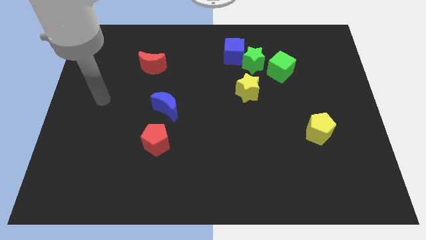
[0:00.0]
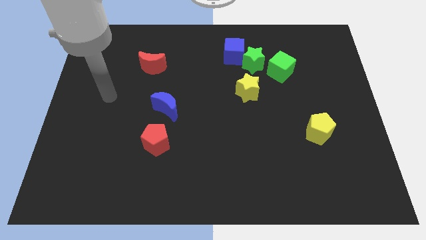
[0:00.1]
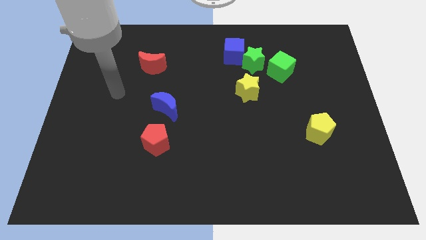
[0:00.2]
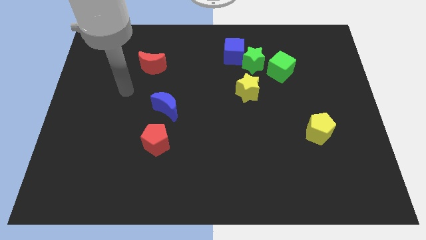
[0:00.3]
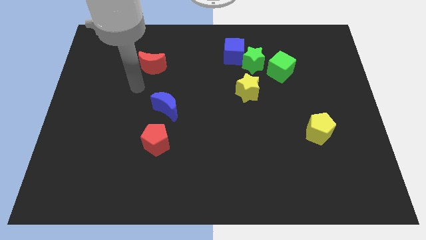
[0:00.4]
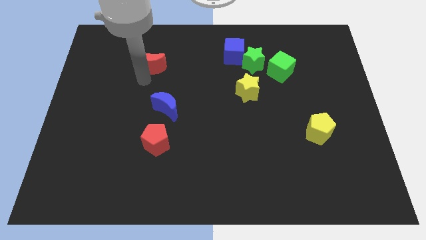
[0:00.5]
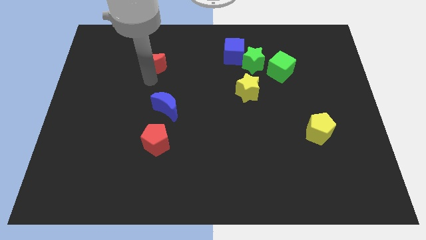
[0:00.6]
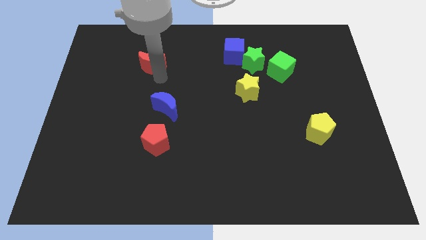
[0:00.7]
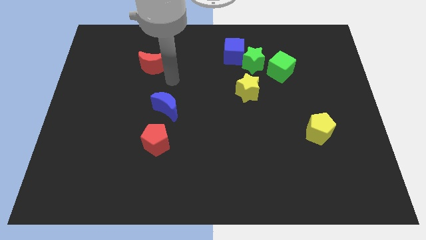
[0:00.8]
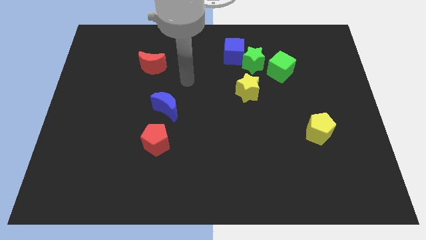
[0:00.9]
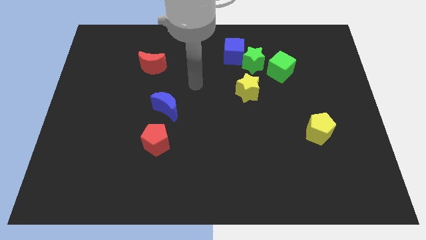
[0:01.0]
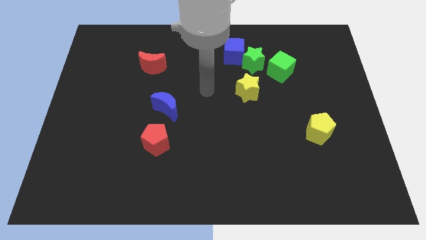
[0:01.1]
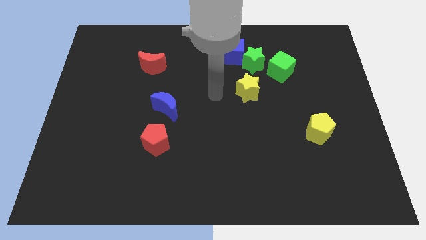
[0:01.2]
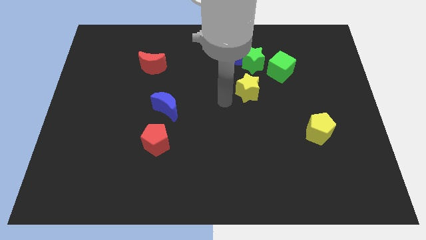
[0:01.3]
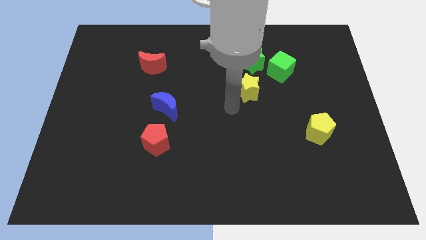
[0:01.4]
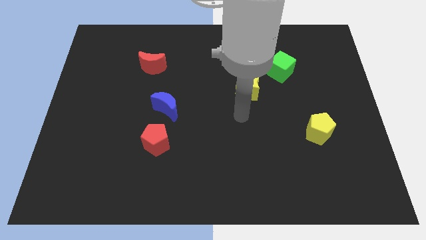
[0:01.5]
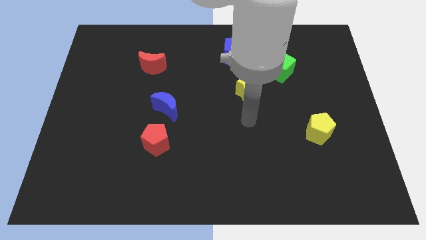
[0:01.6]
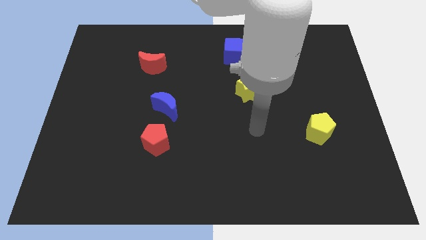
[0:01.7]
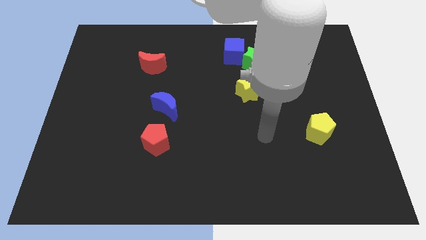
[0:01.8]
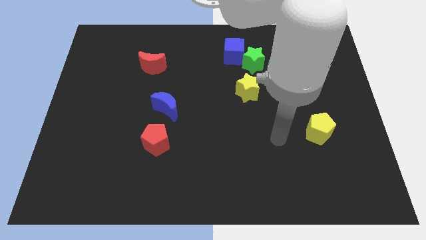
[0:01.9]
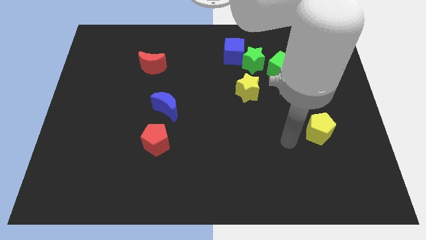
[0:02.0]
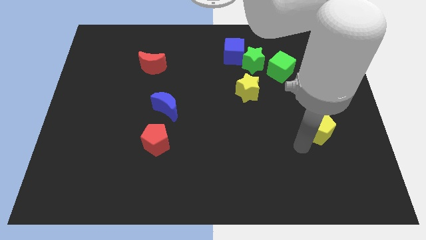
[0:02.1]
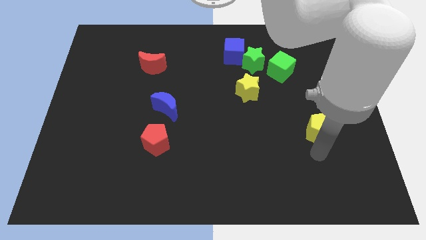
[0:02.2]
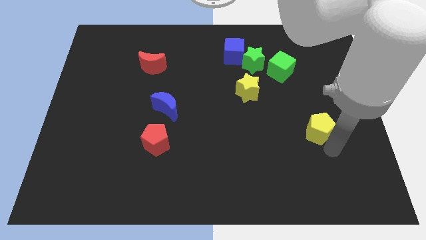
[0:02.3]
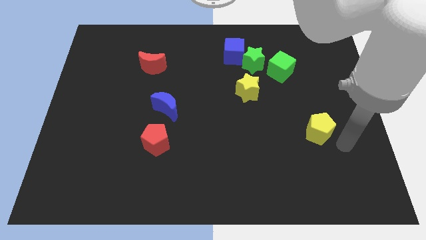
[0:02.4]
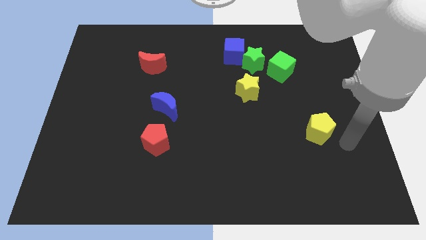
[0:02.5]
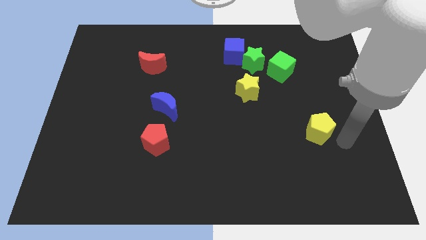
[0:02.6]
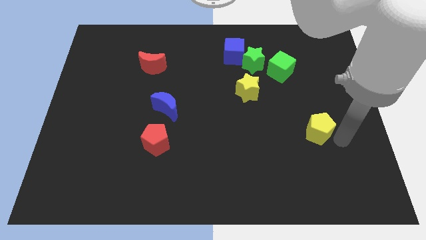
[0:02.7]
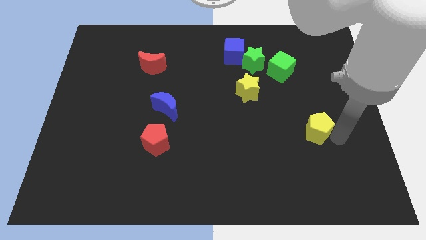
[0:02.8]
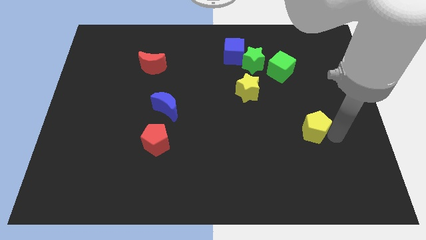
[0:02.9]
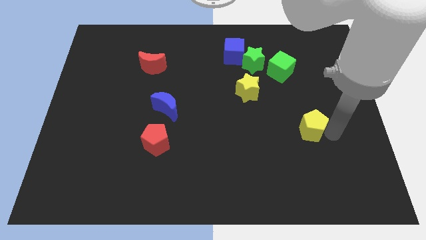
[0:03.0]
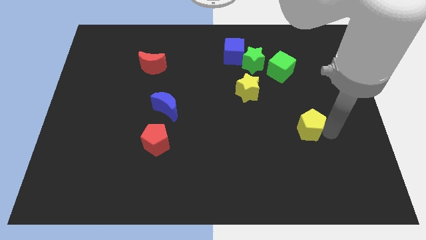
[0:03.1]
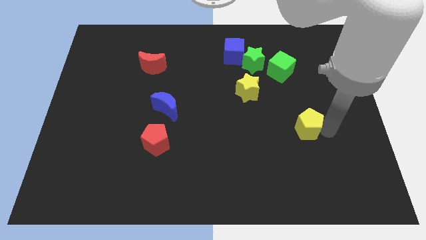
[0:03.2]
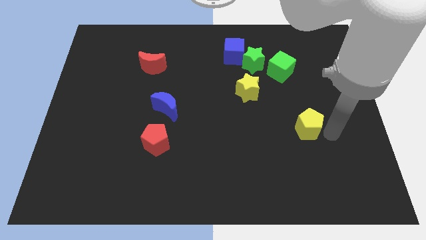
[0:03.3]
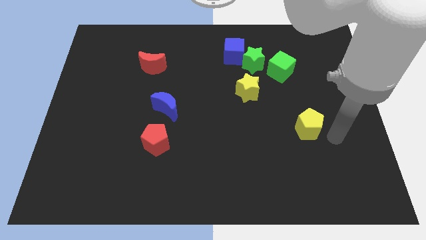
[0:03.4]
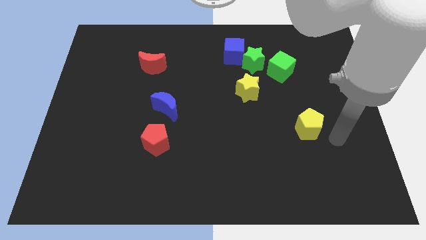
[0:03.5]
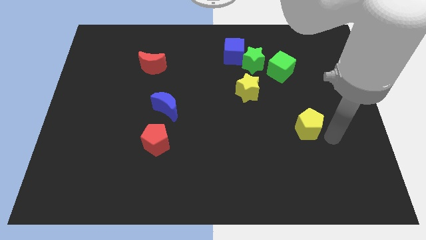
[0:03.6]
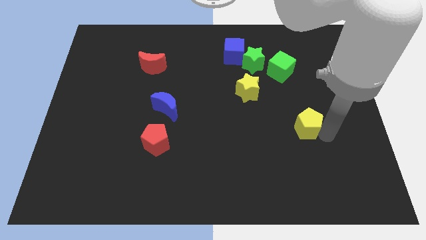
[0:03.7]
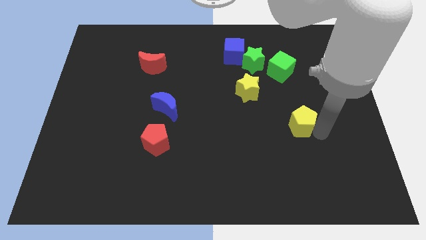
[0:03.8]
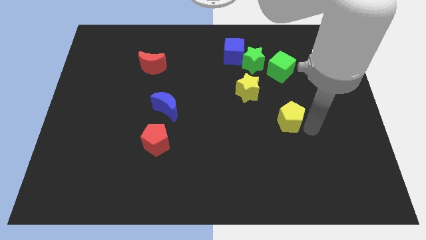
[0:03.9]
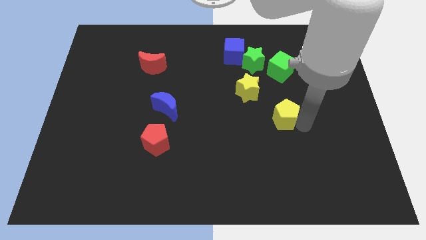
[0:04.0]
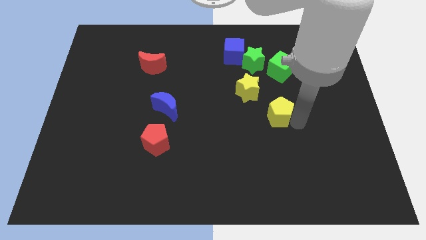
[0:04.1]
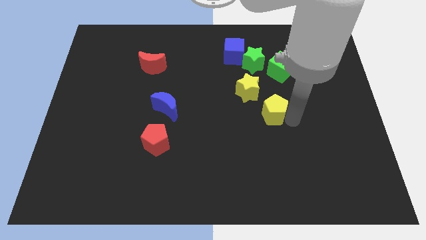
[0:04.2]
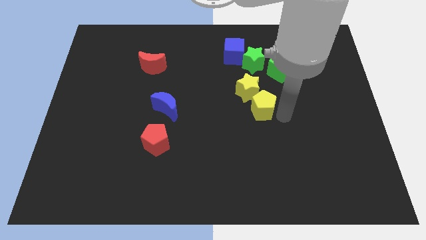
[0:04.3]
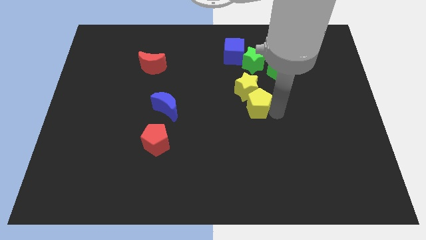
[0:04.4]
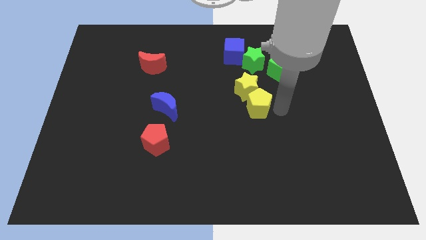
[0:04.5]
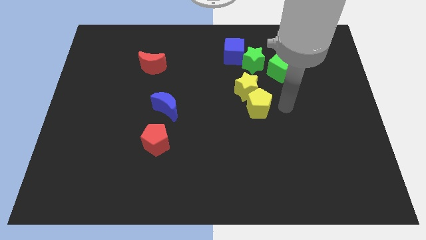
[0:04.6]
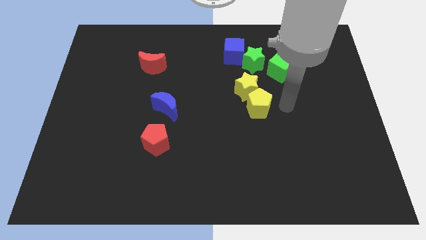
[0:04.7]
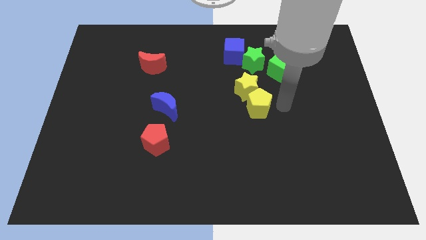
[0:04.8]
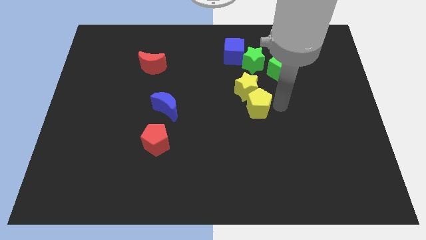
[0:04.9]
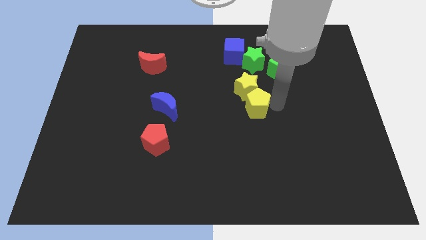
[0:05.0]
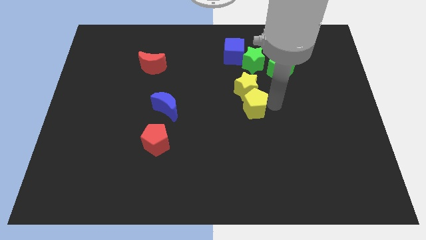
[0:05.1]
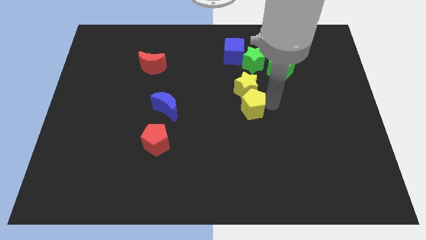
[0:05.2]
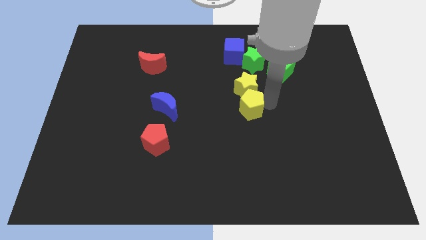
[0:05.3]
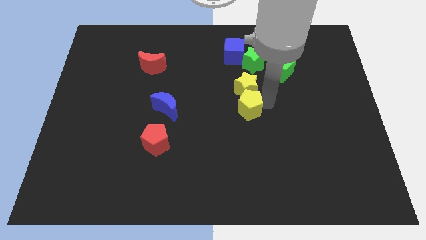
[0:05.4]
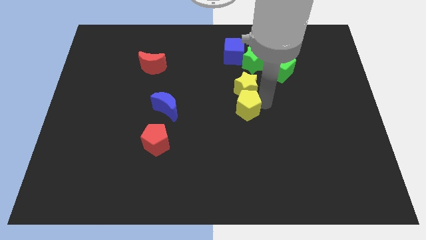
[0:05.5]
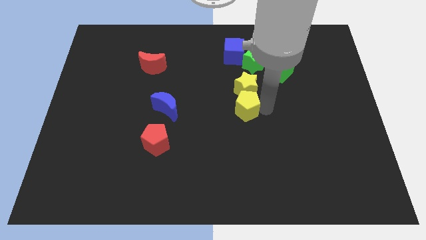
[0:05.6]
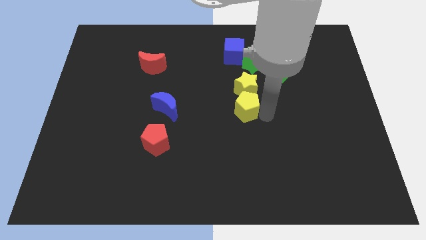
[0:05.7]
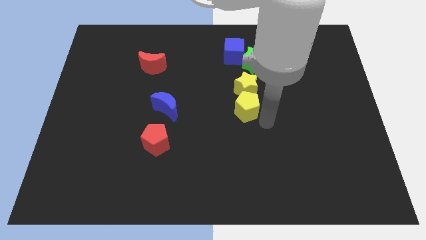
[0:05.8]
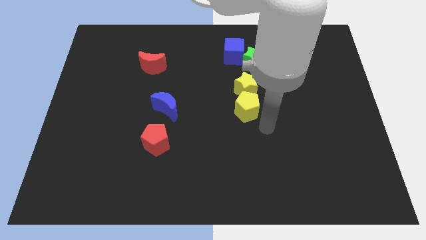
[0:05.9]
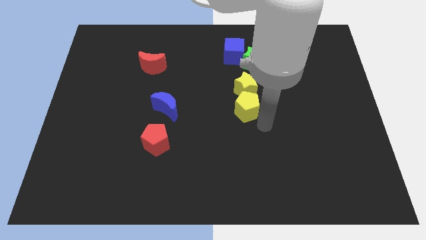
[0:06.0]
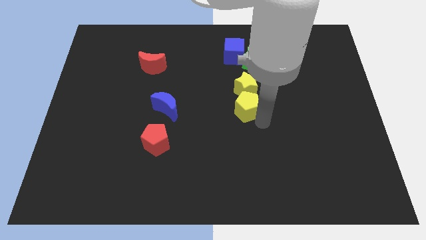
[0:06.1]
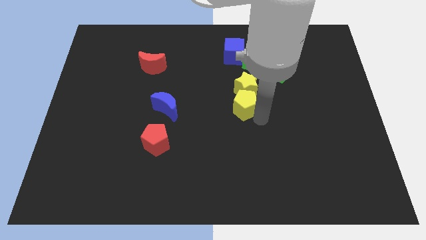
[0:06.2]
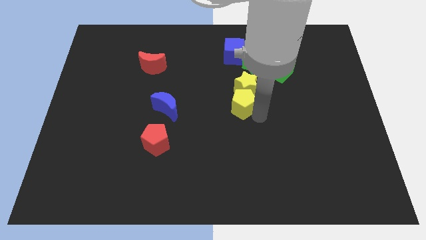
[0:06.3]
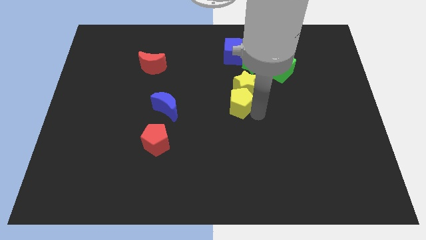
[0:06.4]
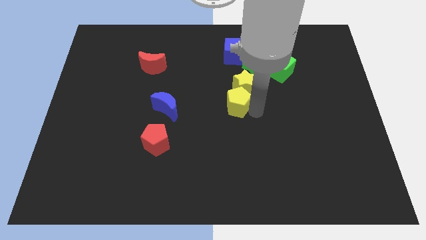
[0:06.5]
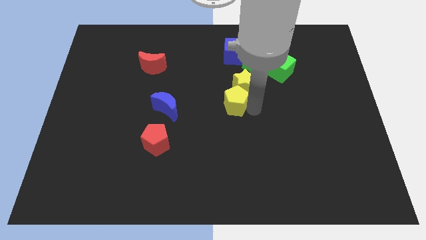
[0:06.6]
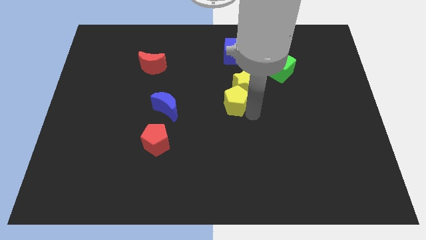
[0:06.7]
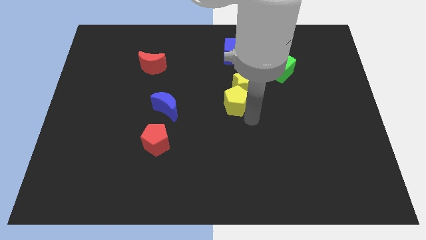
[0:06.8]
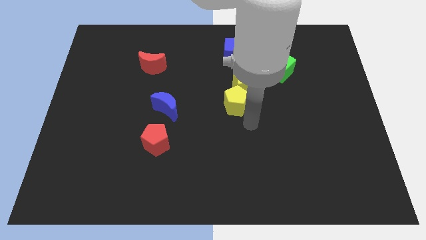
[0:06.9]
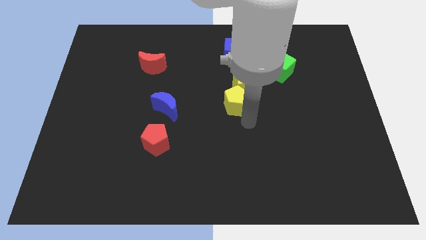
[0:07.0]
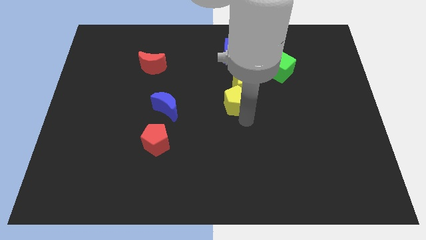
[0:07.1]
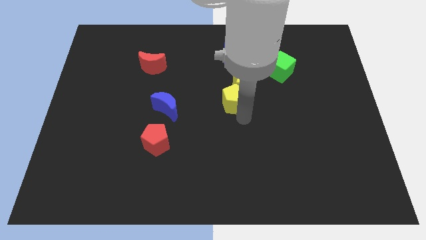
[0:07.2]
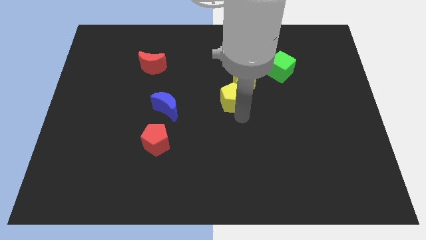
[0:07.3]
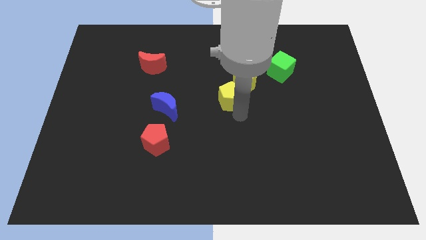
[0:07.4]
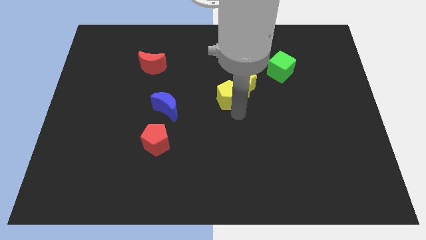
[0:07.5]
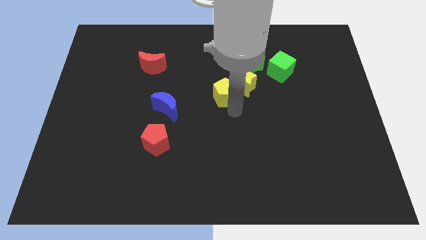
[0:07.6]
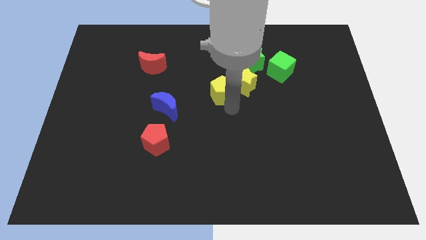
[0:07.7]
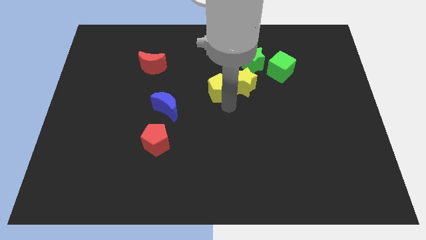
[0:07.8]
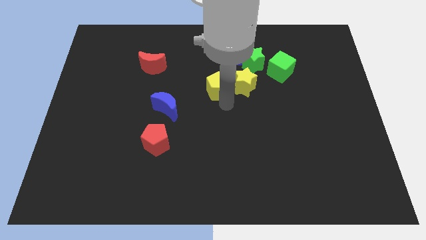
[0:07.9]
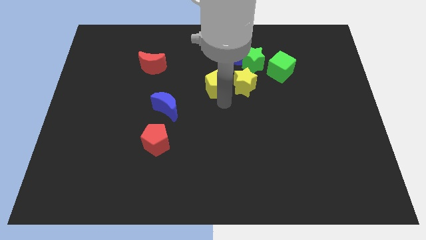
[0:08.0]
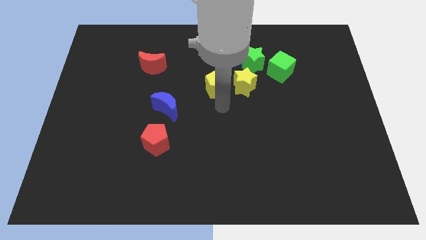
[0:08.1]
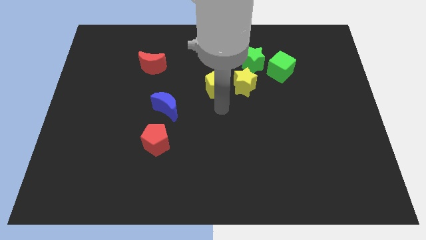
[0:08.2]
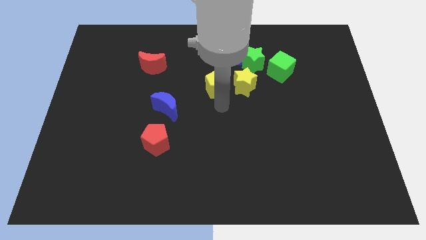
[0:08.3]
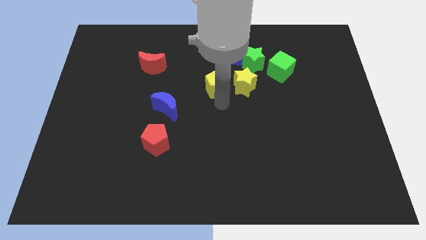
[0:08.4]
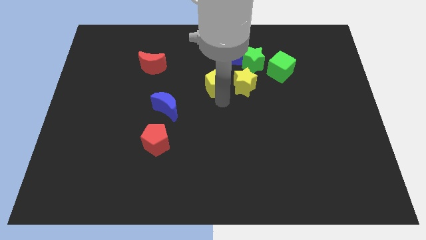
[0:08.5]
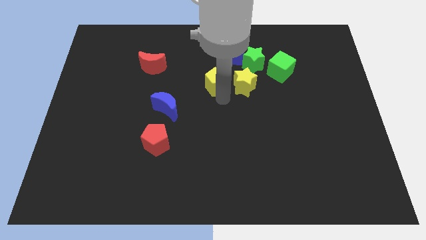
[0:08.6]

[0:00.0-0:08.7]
move the yellow pentagon diagonally down and to the left of the blue cube
